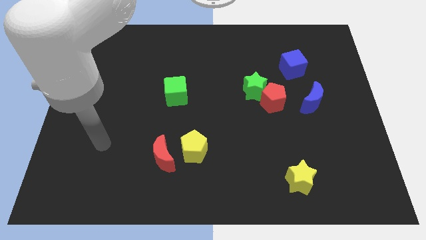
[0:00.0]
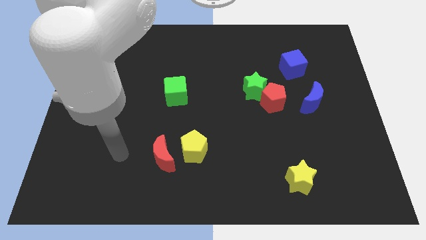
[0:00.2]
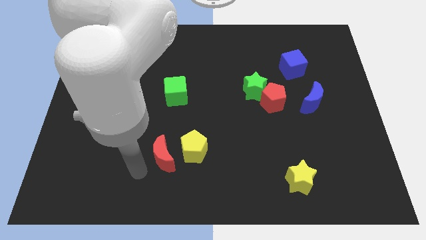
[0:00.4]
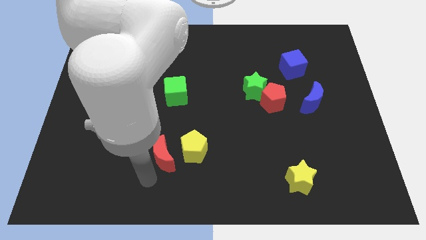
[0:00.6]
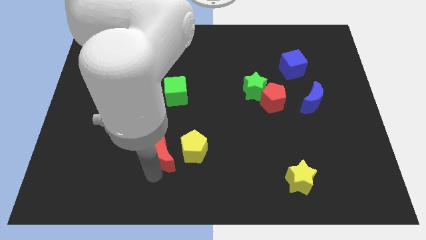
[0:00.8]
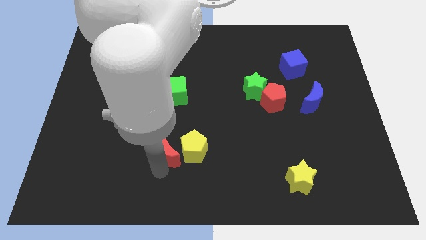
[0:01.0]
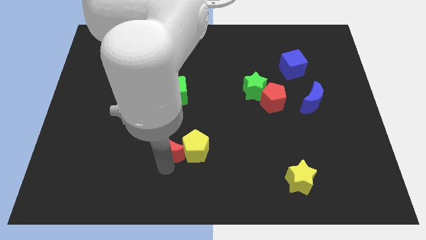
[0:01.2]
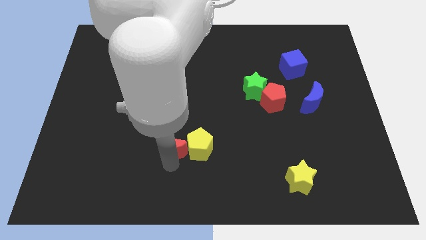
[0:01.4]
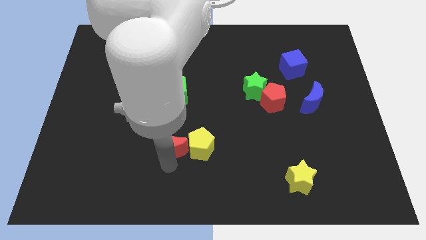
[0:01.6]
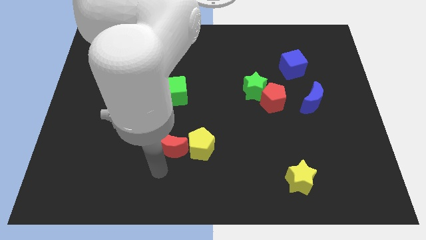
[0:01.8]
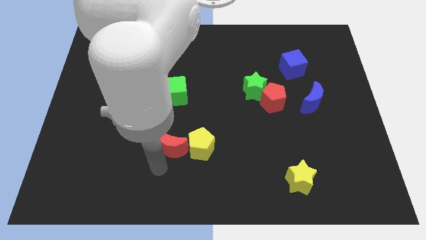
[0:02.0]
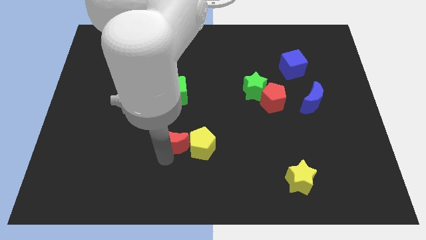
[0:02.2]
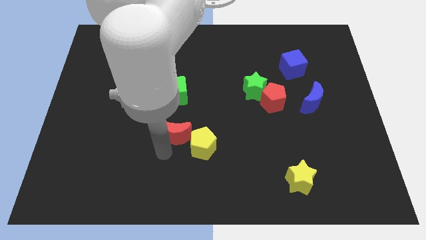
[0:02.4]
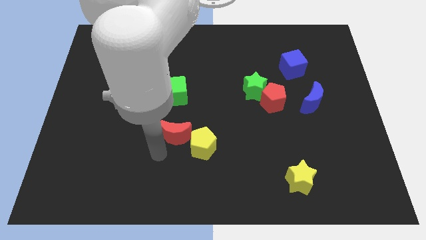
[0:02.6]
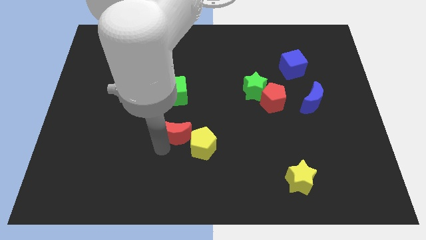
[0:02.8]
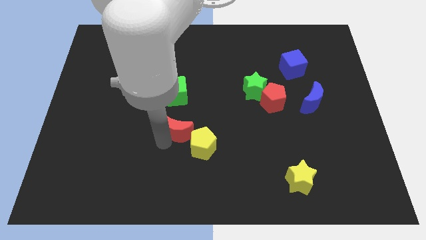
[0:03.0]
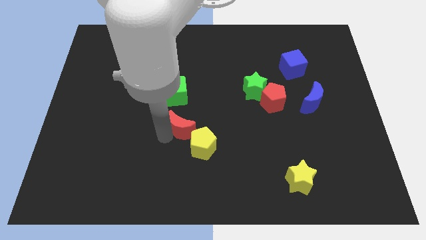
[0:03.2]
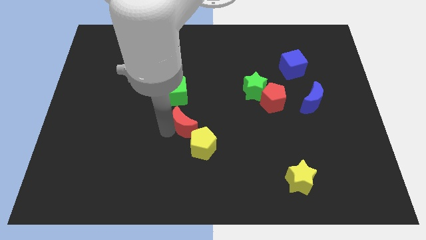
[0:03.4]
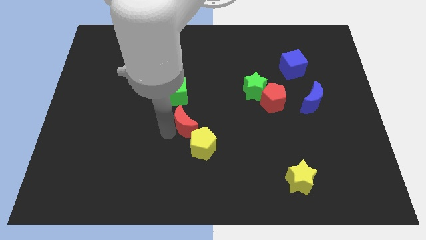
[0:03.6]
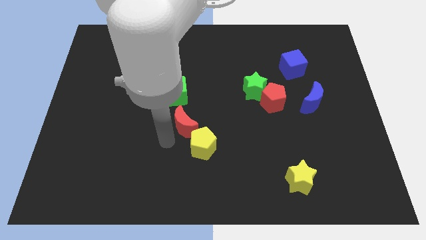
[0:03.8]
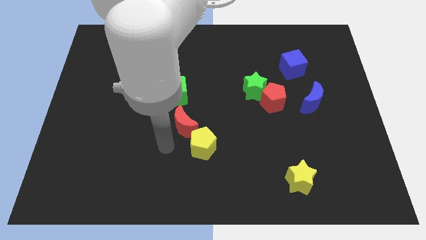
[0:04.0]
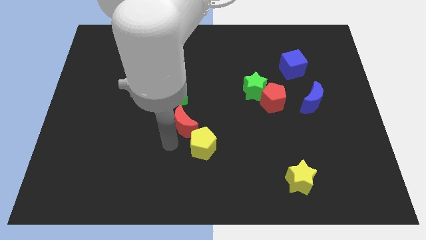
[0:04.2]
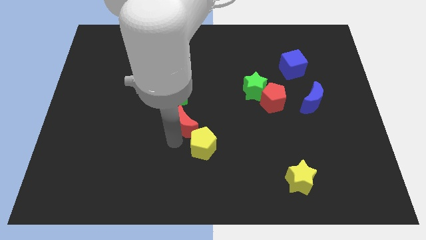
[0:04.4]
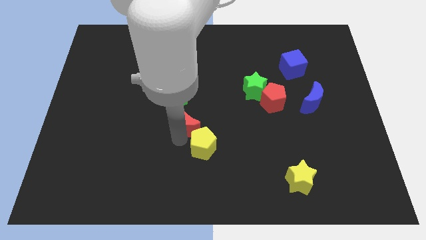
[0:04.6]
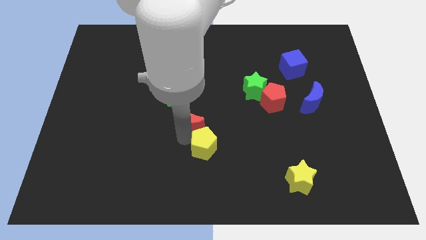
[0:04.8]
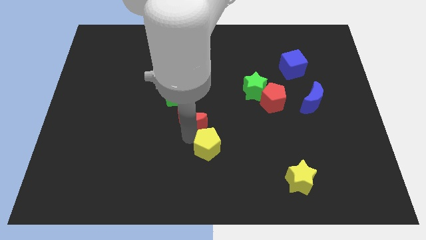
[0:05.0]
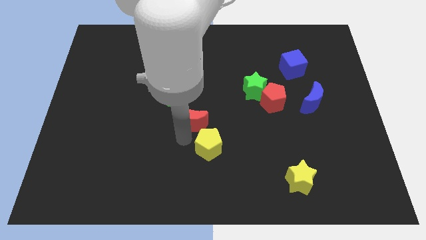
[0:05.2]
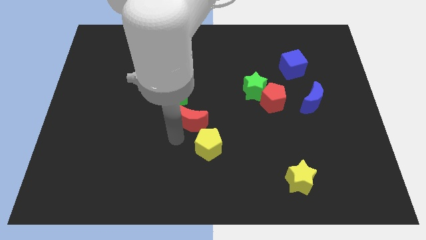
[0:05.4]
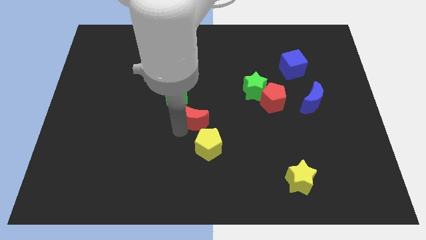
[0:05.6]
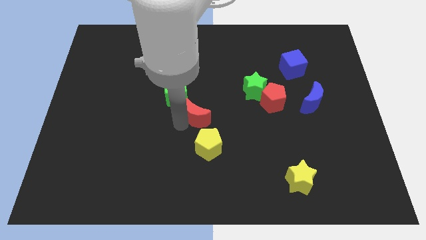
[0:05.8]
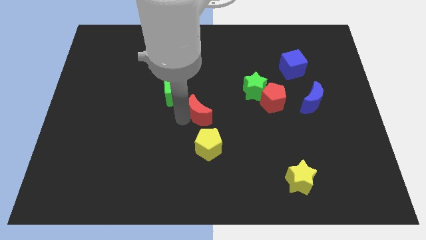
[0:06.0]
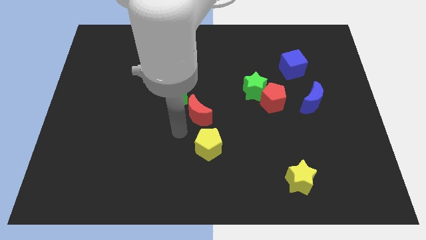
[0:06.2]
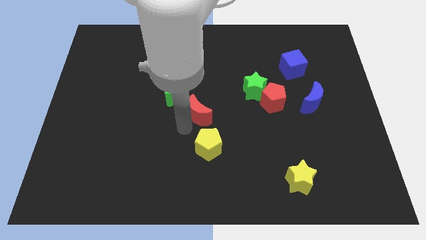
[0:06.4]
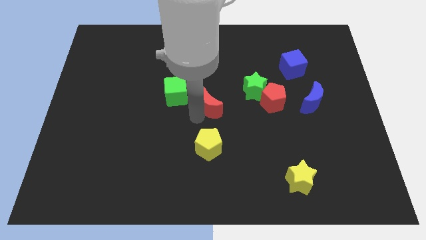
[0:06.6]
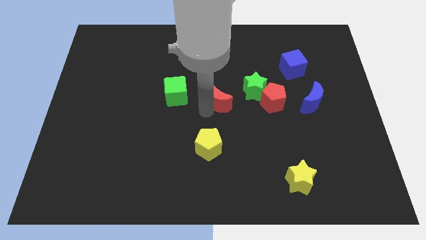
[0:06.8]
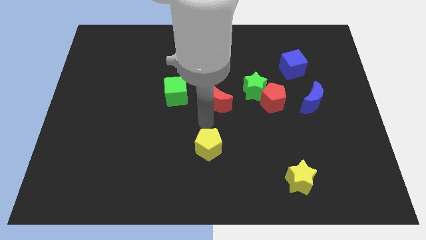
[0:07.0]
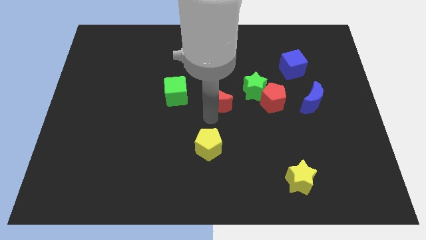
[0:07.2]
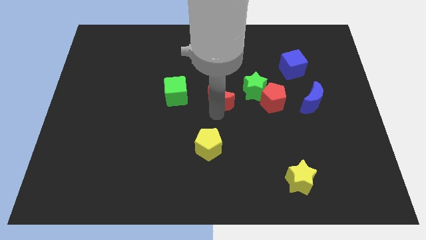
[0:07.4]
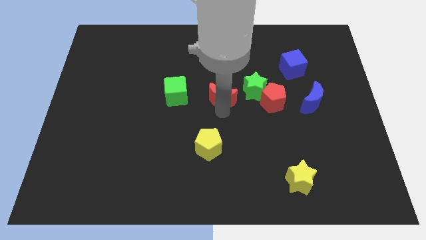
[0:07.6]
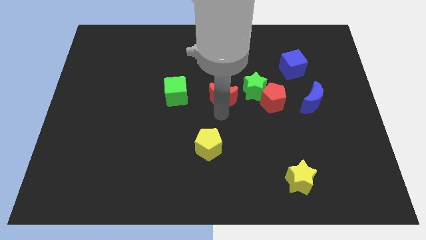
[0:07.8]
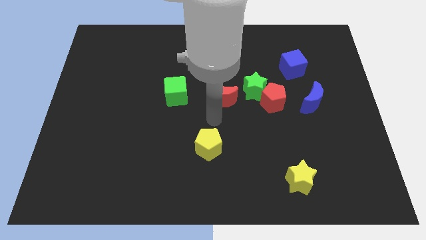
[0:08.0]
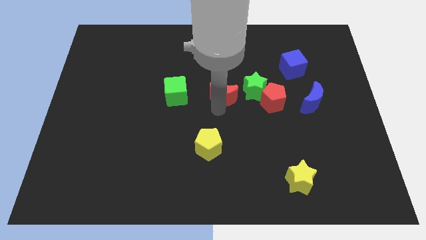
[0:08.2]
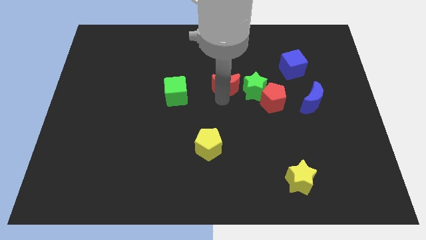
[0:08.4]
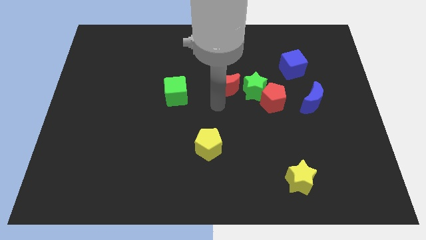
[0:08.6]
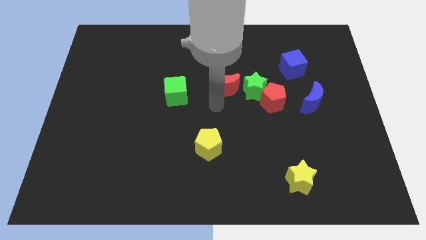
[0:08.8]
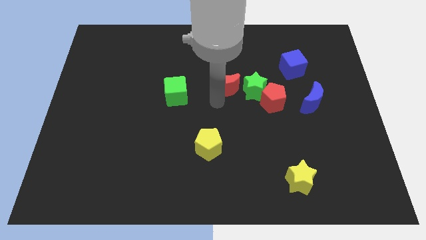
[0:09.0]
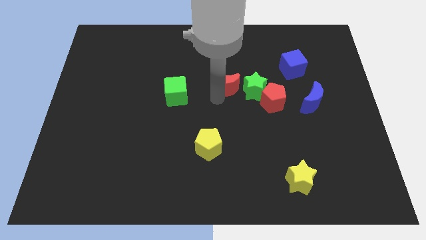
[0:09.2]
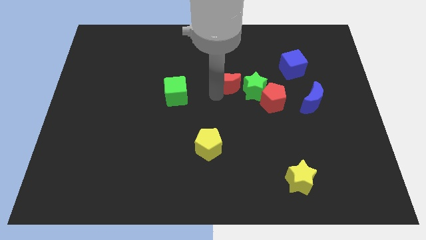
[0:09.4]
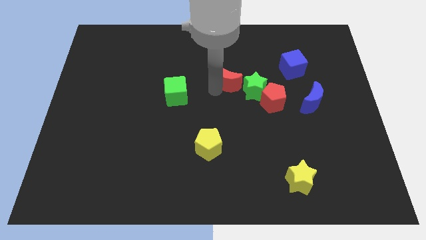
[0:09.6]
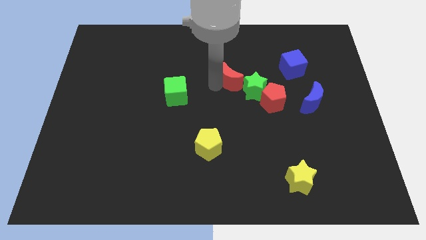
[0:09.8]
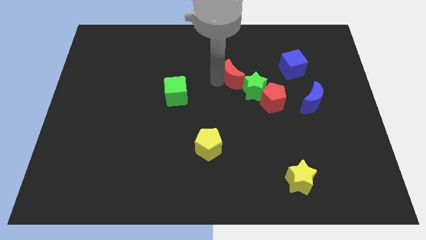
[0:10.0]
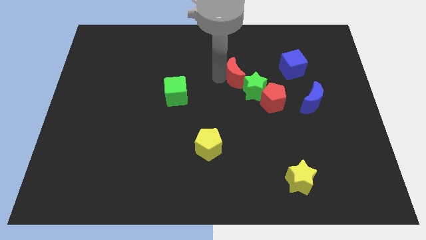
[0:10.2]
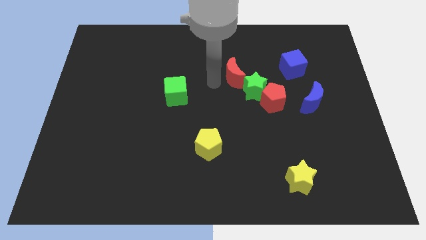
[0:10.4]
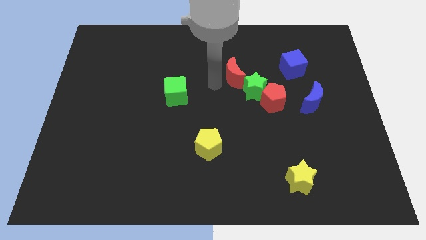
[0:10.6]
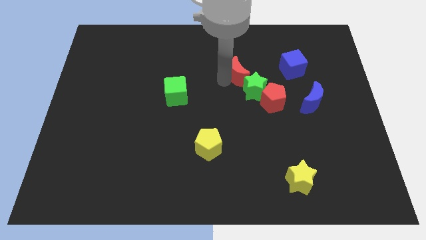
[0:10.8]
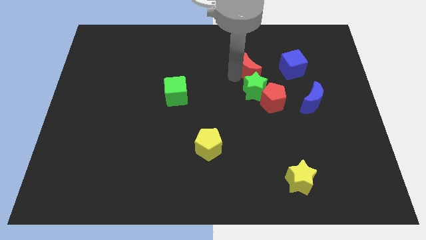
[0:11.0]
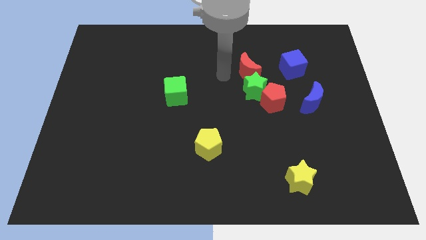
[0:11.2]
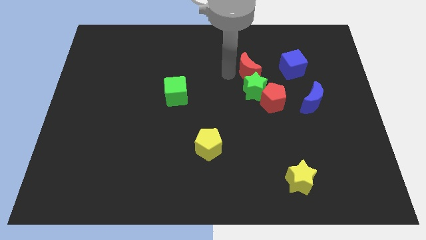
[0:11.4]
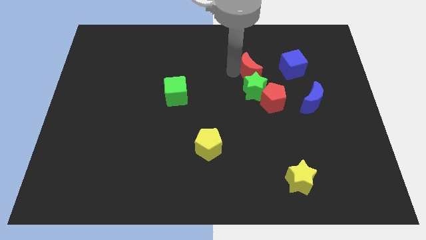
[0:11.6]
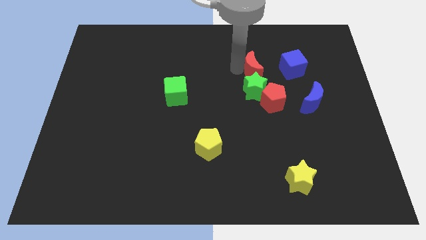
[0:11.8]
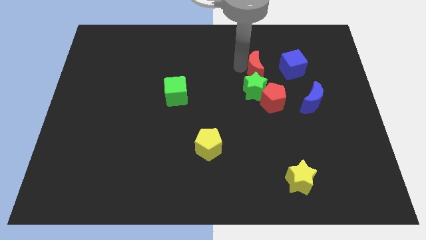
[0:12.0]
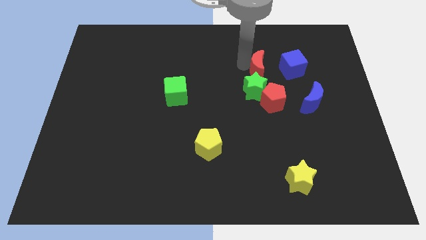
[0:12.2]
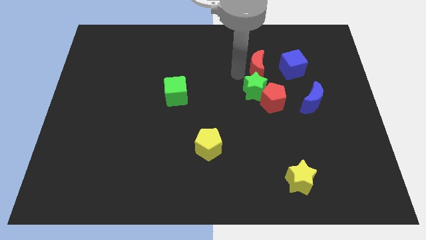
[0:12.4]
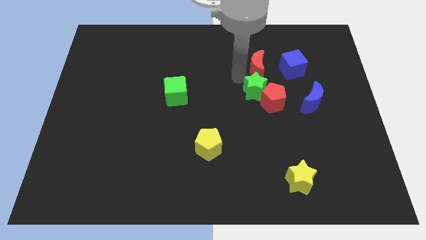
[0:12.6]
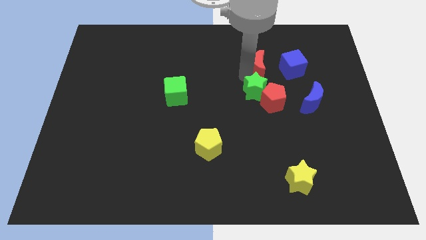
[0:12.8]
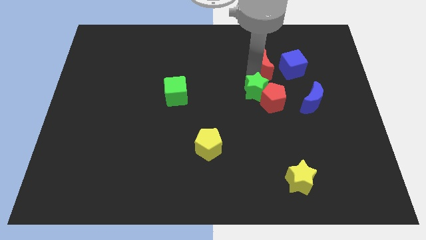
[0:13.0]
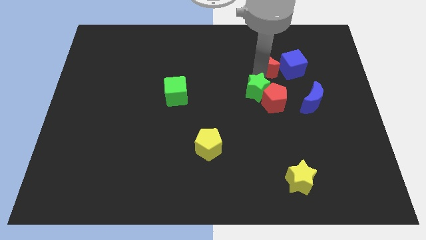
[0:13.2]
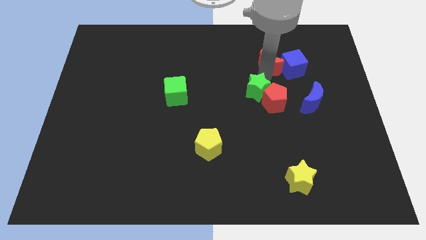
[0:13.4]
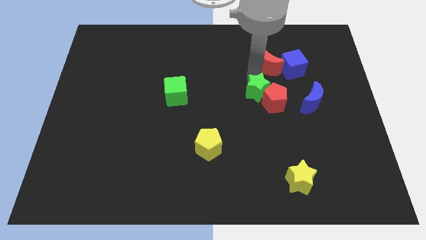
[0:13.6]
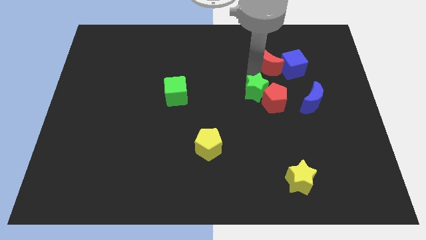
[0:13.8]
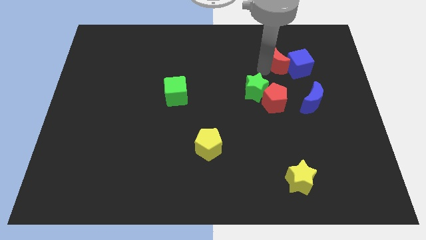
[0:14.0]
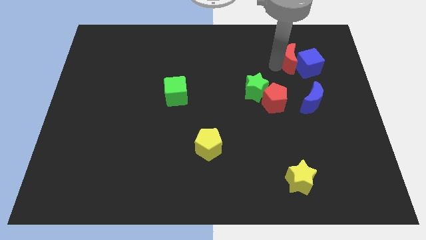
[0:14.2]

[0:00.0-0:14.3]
put the red moon to the top of the blue moon
